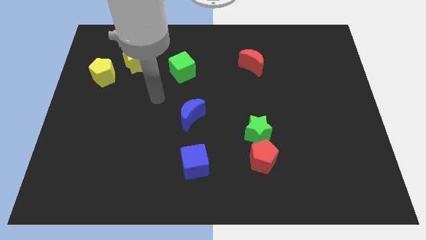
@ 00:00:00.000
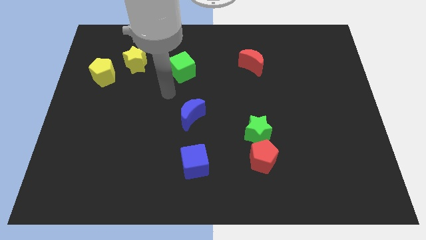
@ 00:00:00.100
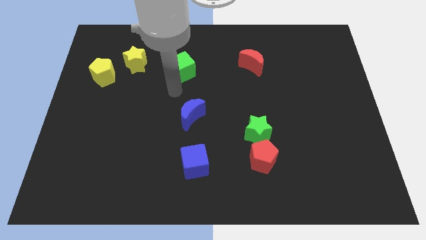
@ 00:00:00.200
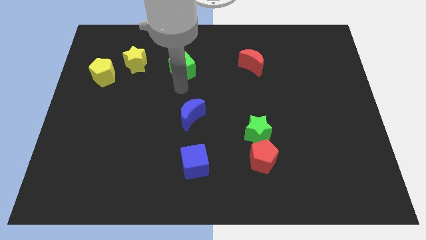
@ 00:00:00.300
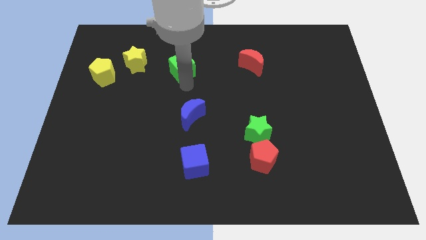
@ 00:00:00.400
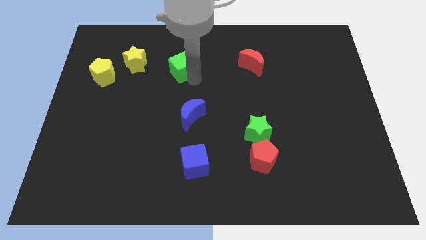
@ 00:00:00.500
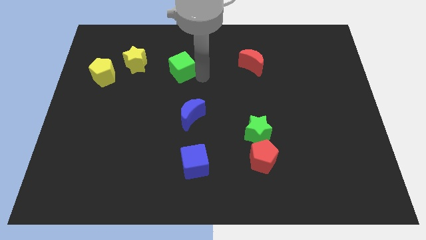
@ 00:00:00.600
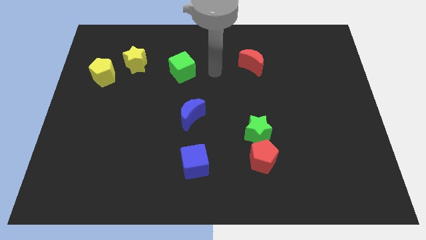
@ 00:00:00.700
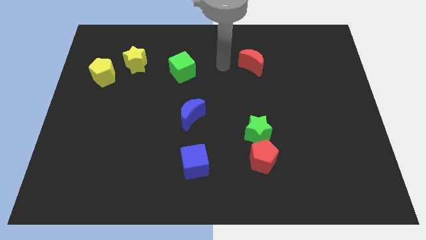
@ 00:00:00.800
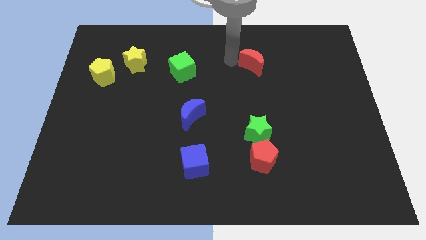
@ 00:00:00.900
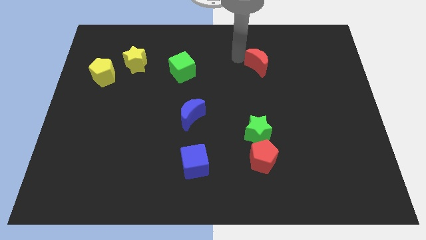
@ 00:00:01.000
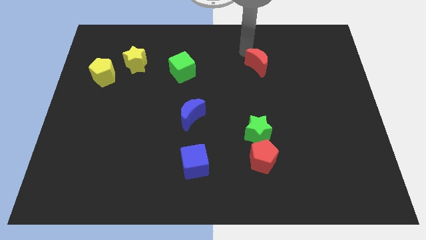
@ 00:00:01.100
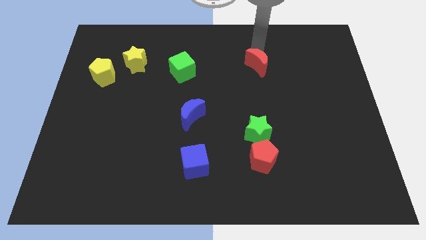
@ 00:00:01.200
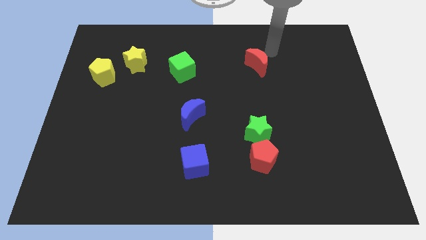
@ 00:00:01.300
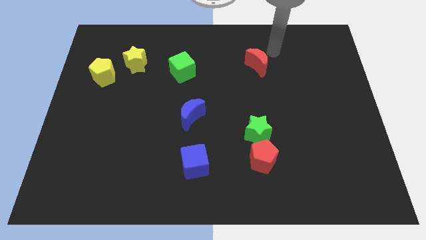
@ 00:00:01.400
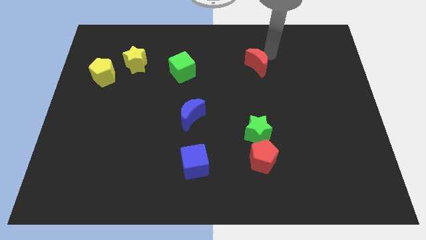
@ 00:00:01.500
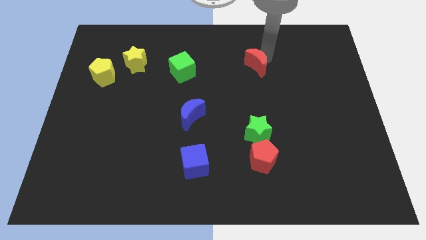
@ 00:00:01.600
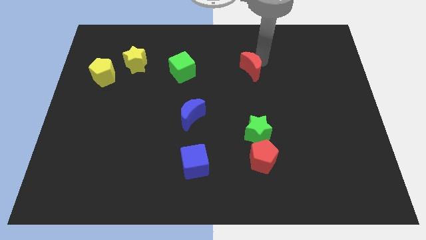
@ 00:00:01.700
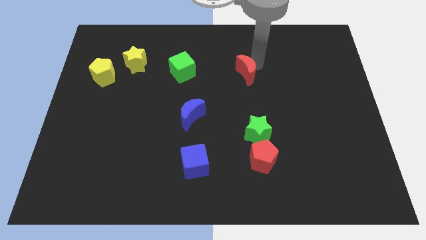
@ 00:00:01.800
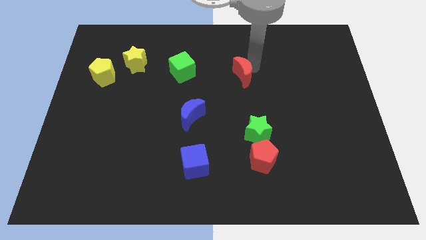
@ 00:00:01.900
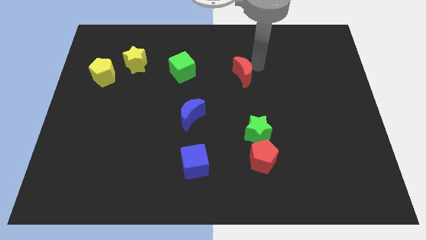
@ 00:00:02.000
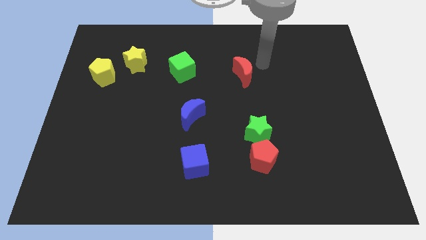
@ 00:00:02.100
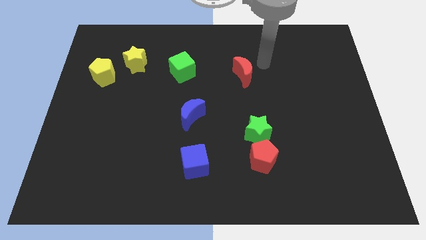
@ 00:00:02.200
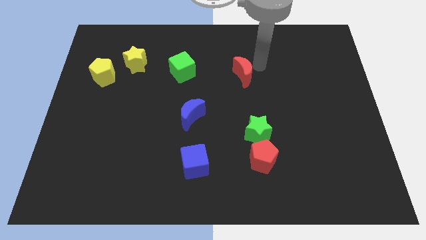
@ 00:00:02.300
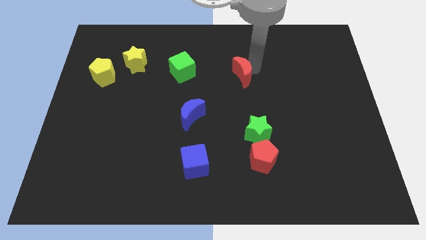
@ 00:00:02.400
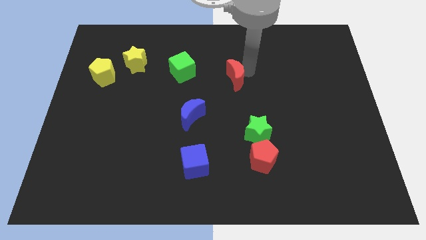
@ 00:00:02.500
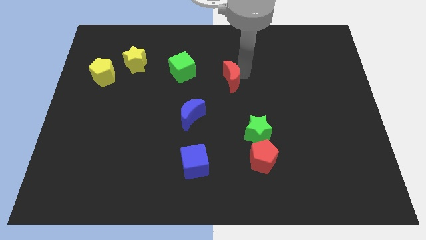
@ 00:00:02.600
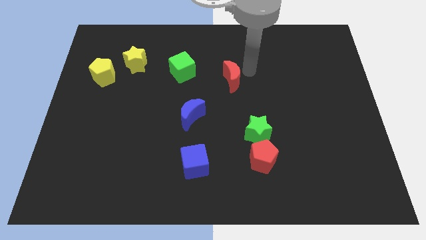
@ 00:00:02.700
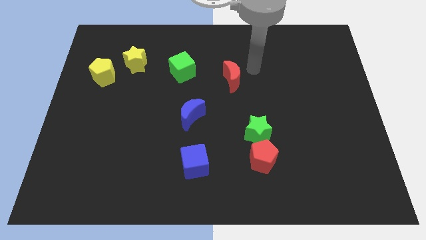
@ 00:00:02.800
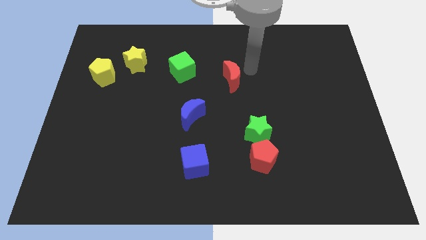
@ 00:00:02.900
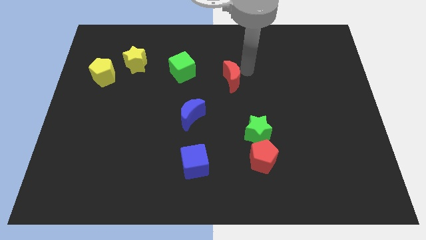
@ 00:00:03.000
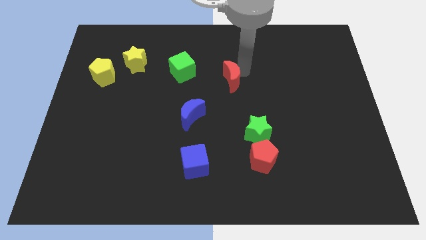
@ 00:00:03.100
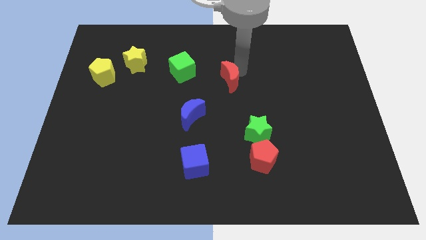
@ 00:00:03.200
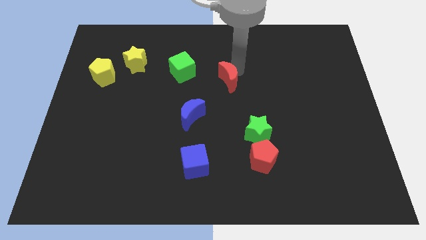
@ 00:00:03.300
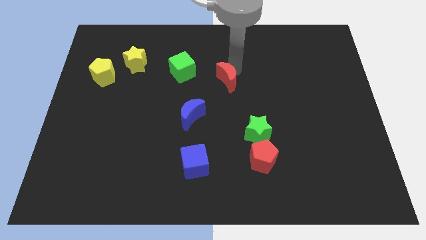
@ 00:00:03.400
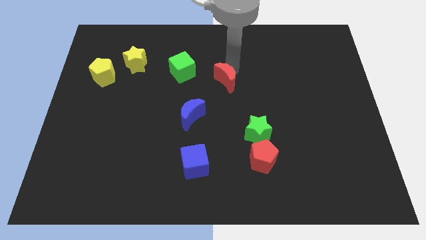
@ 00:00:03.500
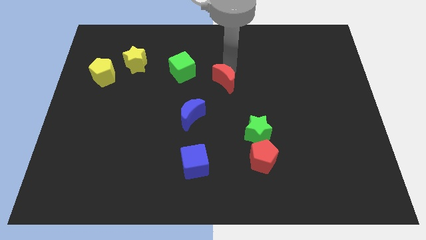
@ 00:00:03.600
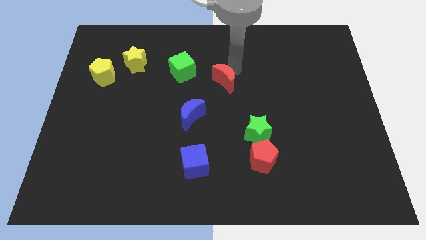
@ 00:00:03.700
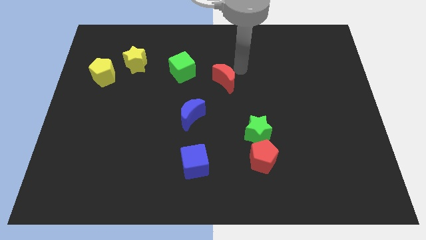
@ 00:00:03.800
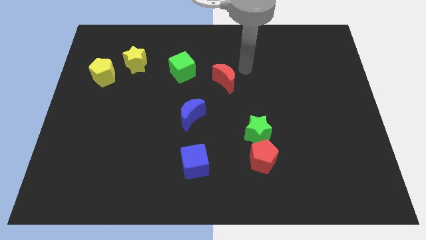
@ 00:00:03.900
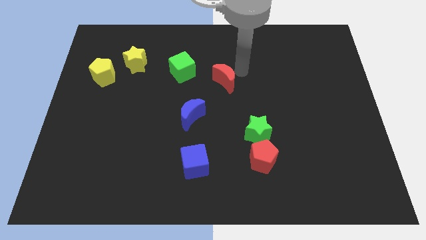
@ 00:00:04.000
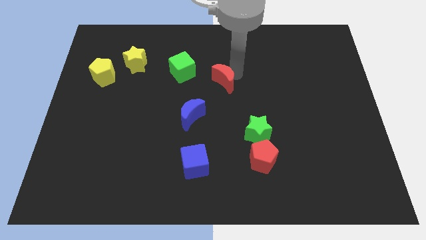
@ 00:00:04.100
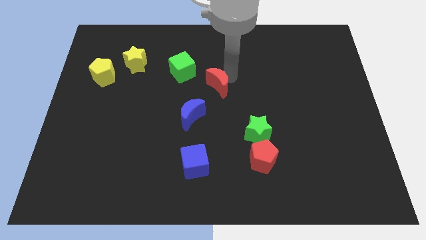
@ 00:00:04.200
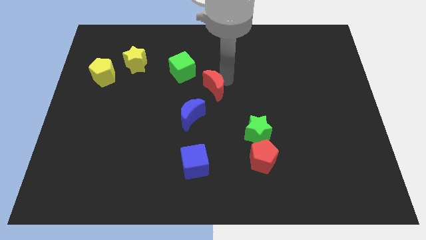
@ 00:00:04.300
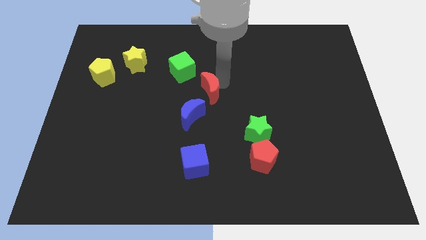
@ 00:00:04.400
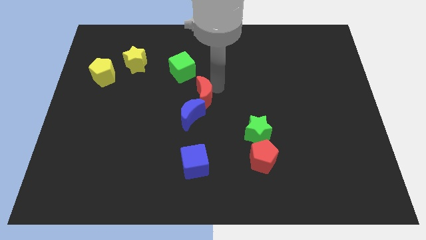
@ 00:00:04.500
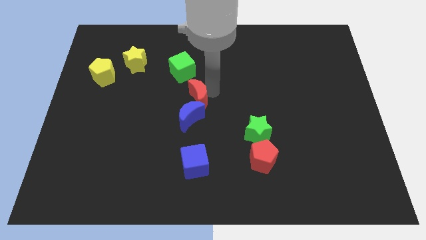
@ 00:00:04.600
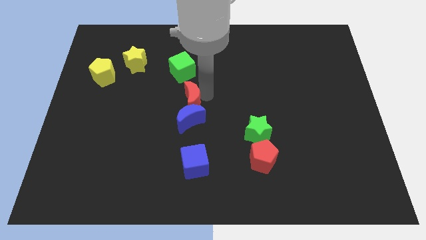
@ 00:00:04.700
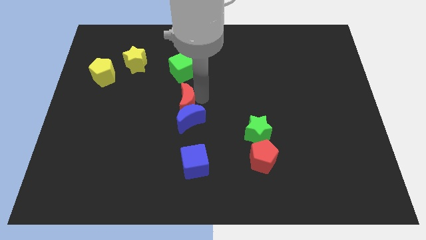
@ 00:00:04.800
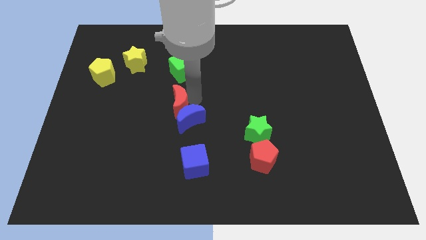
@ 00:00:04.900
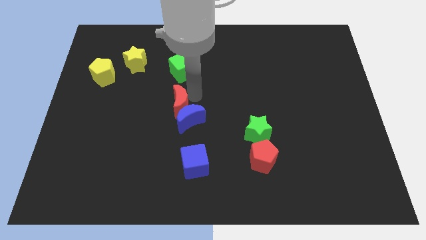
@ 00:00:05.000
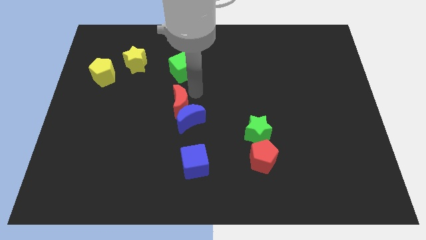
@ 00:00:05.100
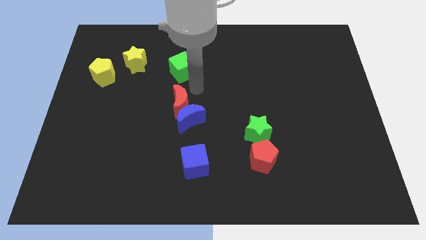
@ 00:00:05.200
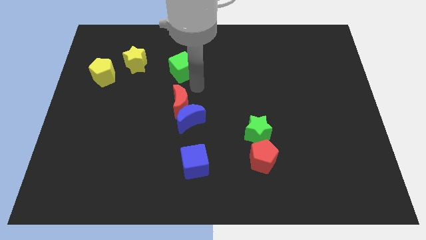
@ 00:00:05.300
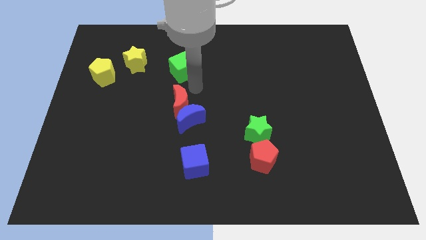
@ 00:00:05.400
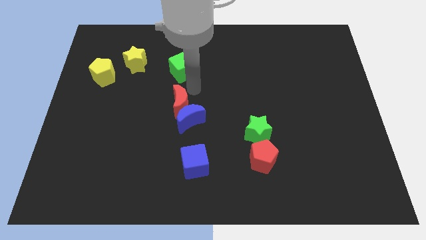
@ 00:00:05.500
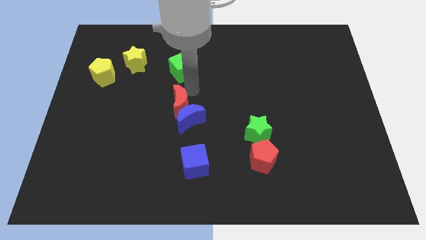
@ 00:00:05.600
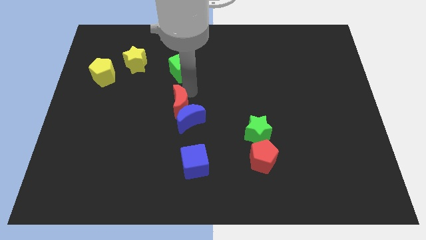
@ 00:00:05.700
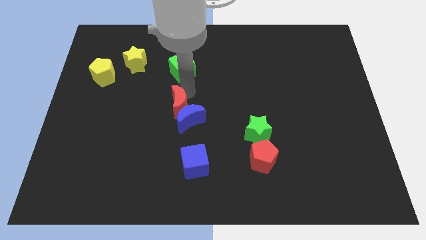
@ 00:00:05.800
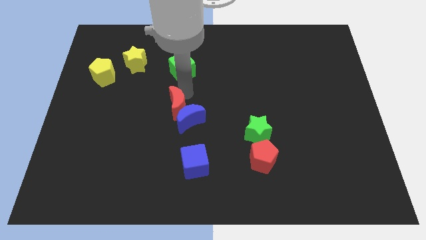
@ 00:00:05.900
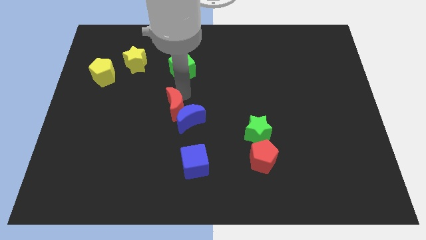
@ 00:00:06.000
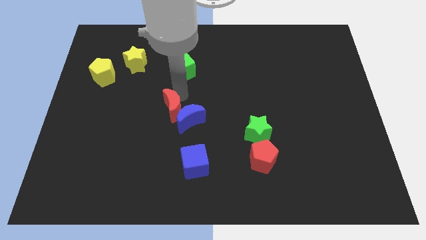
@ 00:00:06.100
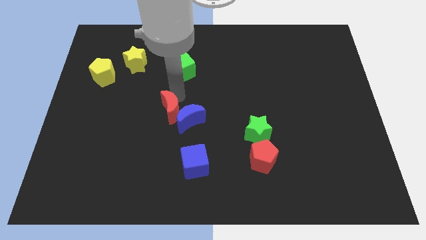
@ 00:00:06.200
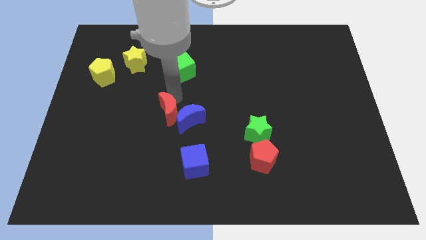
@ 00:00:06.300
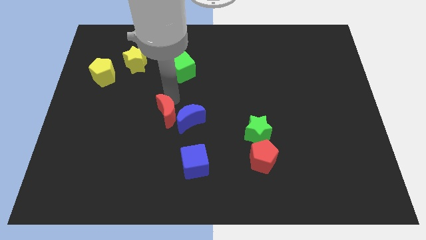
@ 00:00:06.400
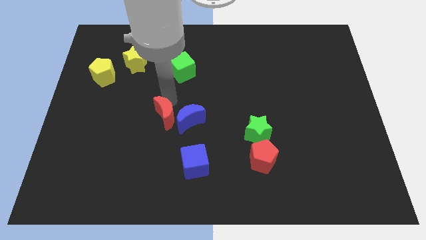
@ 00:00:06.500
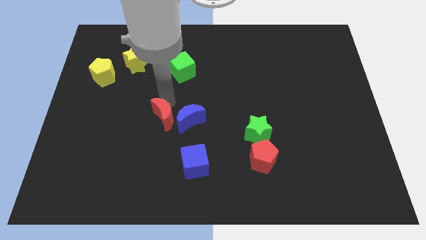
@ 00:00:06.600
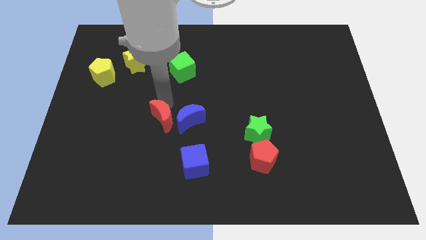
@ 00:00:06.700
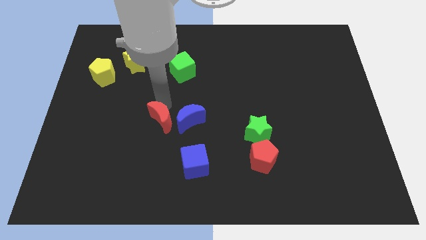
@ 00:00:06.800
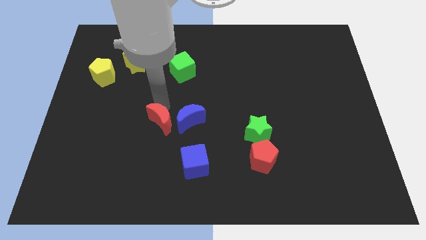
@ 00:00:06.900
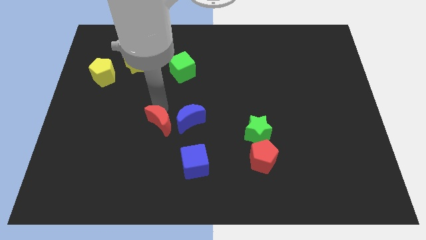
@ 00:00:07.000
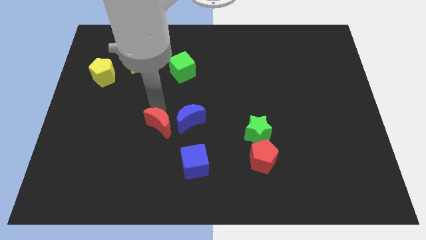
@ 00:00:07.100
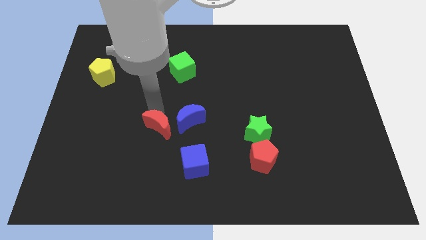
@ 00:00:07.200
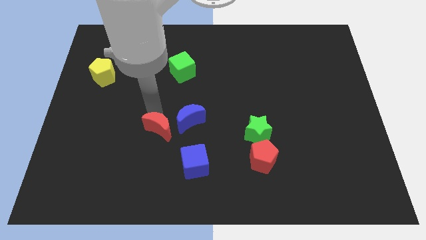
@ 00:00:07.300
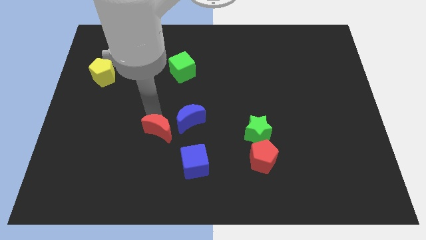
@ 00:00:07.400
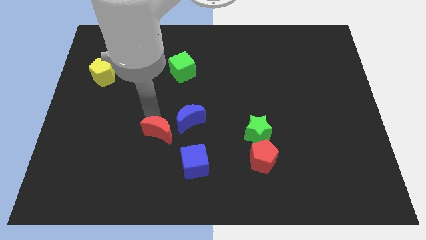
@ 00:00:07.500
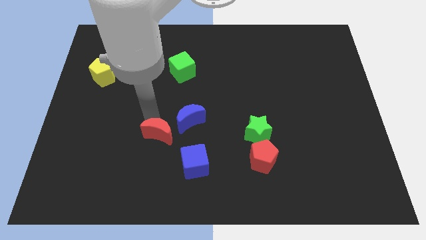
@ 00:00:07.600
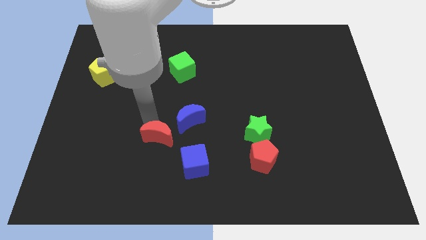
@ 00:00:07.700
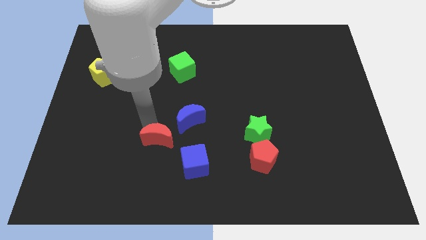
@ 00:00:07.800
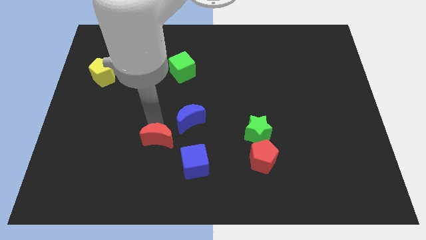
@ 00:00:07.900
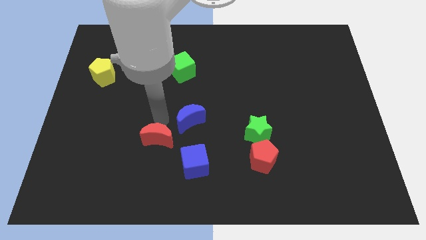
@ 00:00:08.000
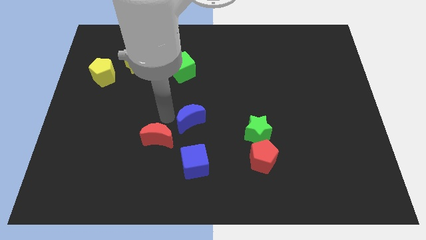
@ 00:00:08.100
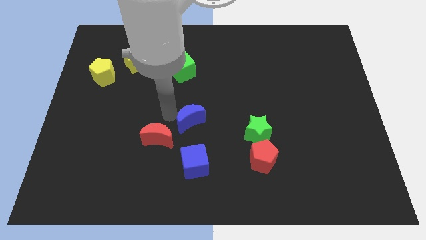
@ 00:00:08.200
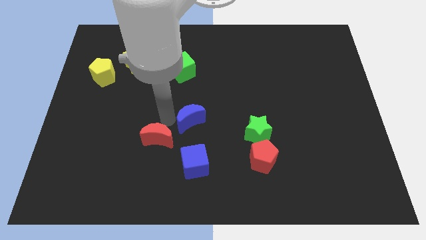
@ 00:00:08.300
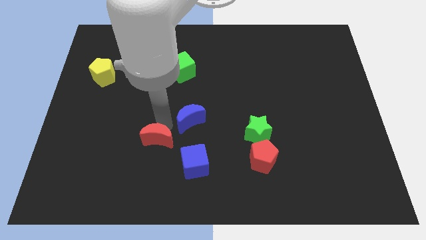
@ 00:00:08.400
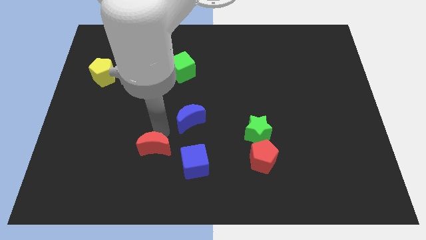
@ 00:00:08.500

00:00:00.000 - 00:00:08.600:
slide the red moon left of the blue cube
